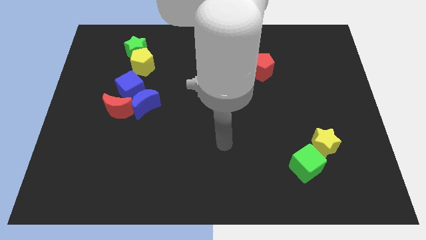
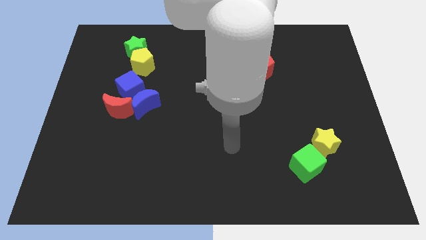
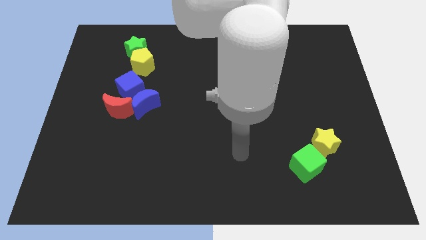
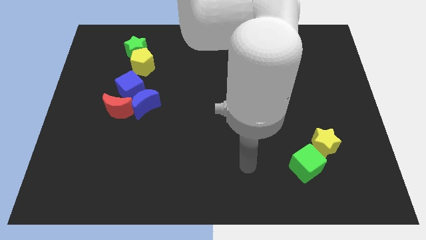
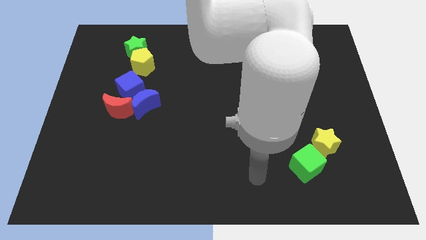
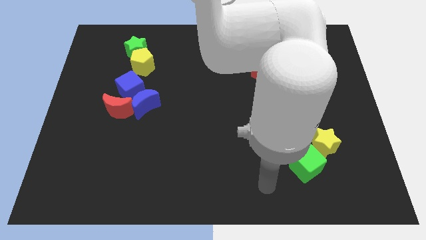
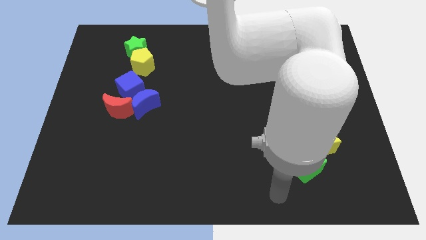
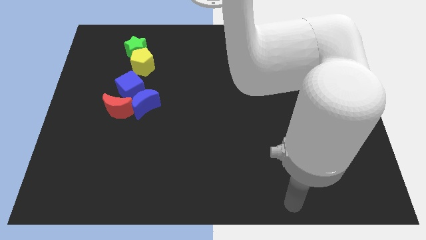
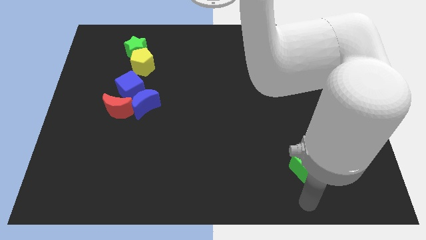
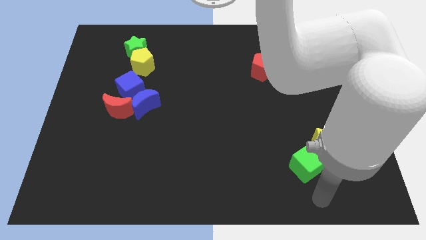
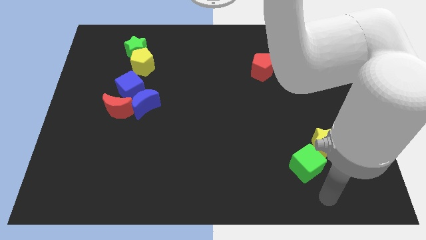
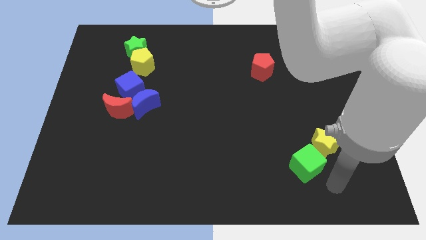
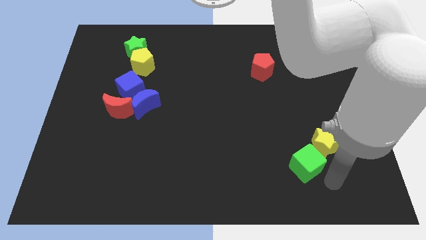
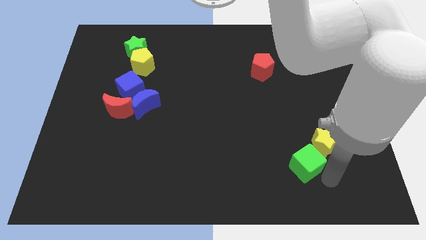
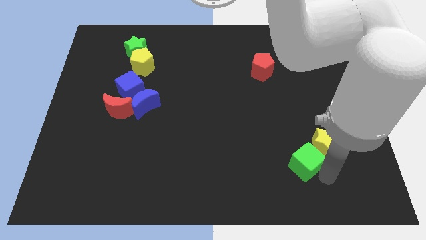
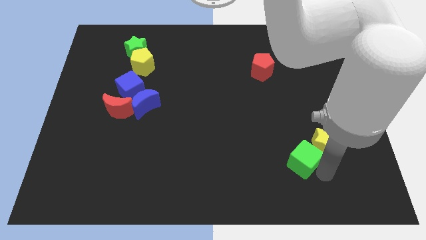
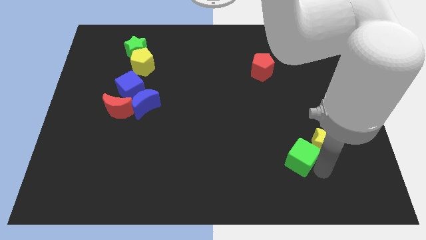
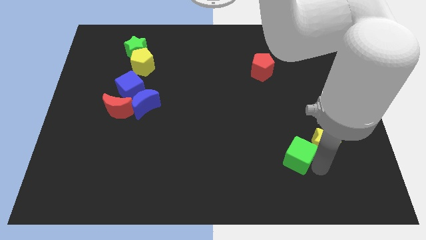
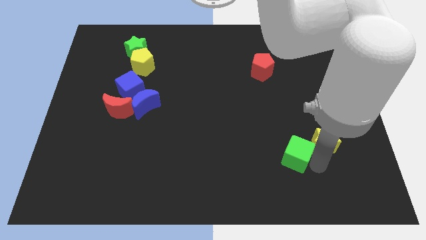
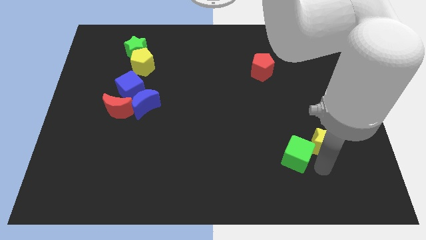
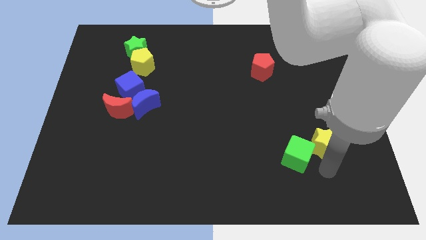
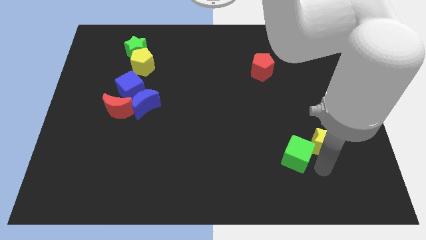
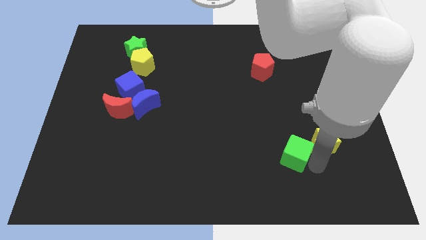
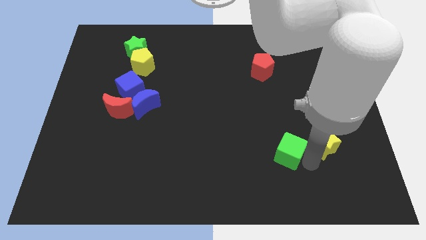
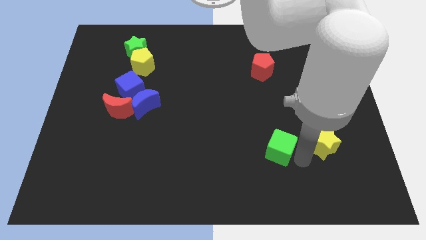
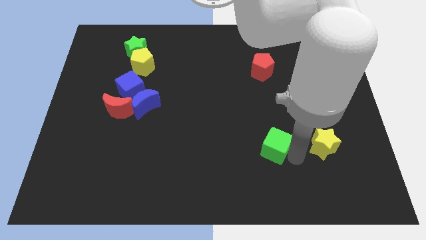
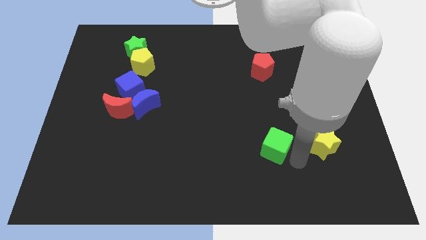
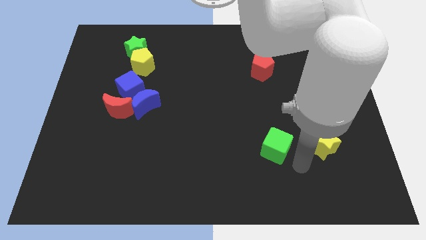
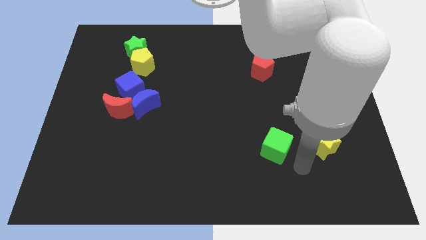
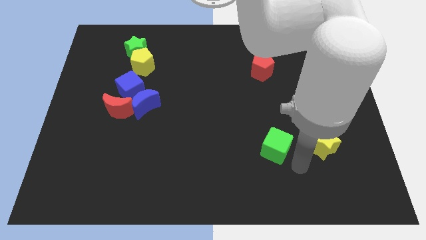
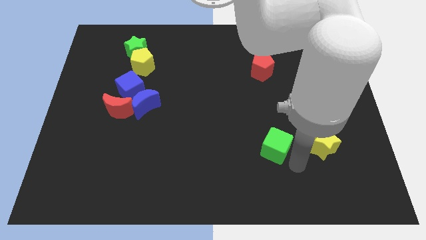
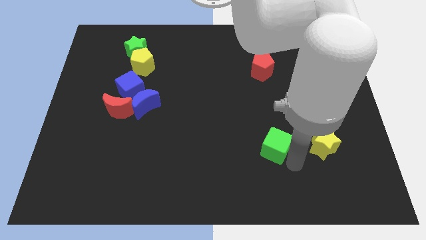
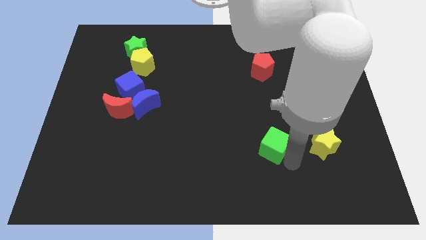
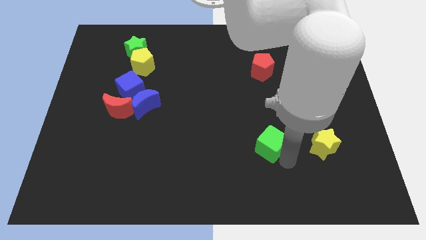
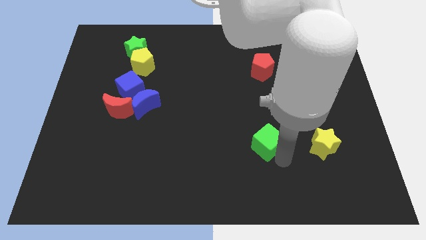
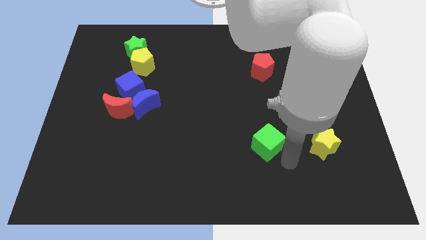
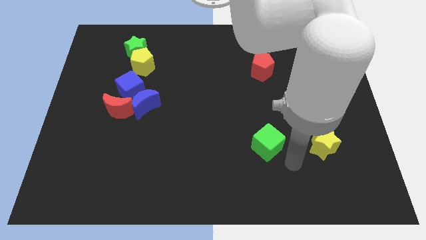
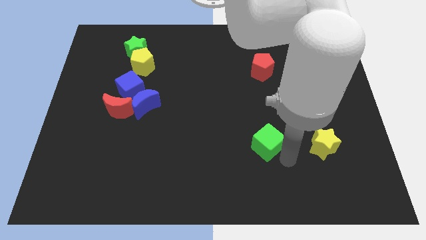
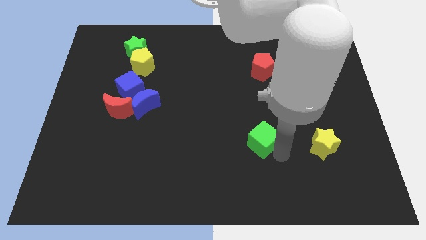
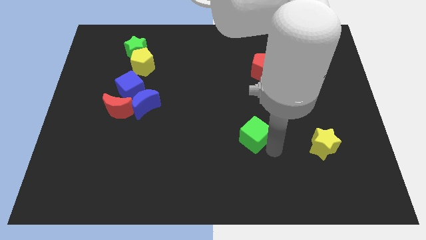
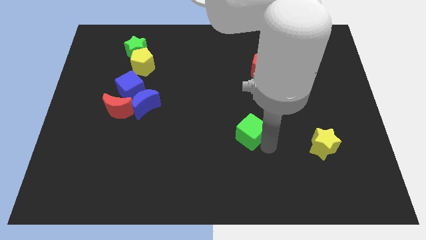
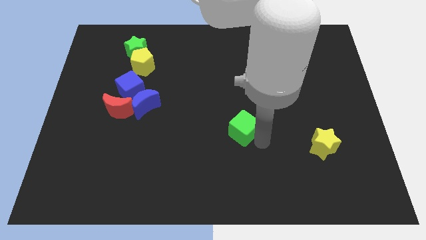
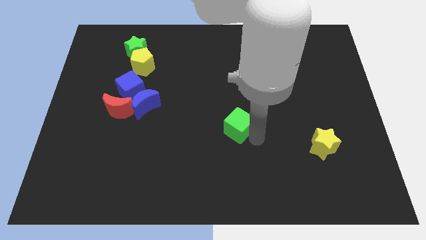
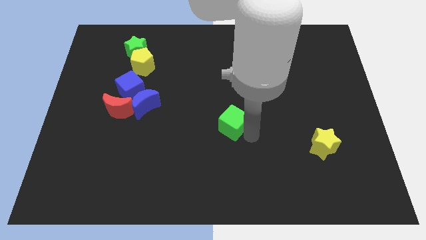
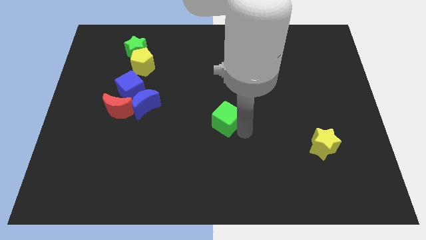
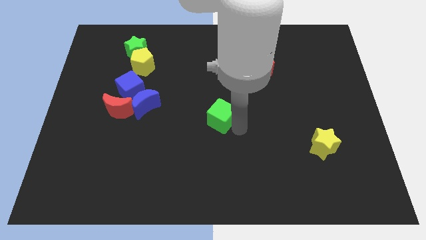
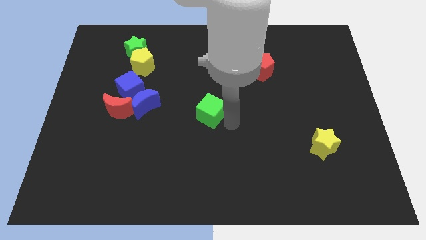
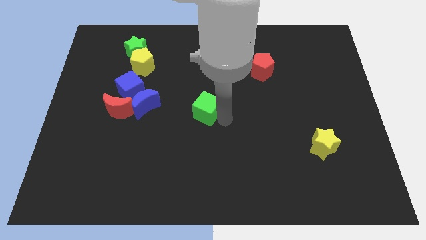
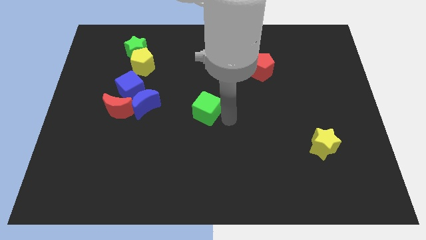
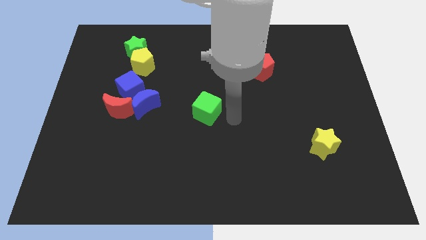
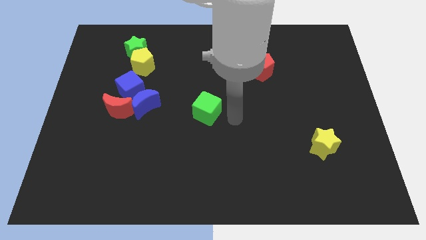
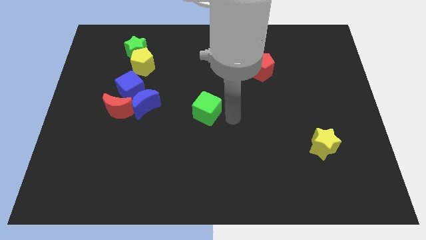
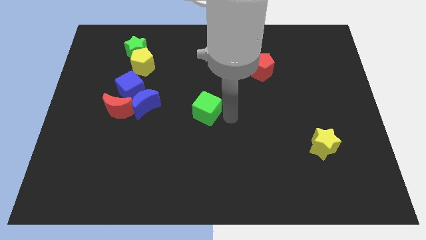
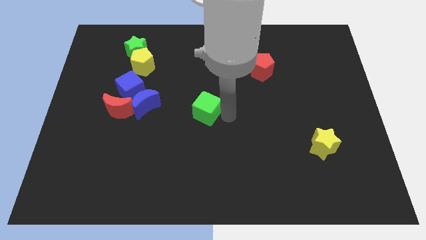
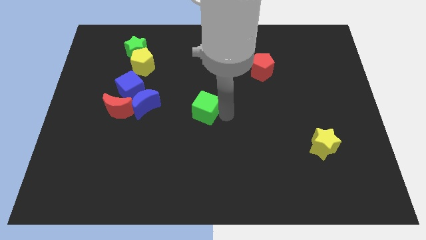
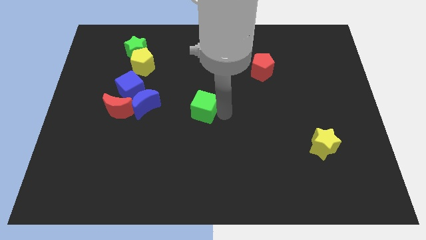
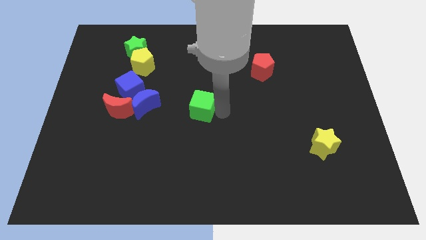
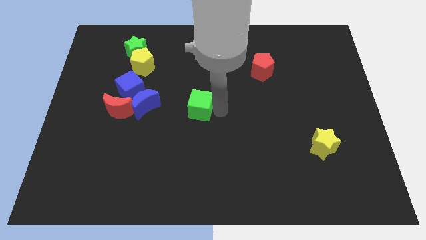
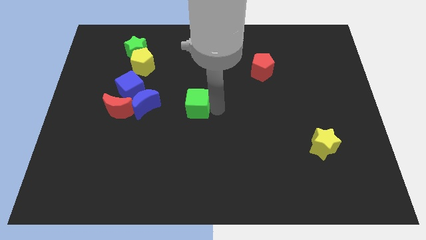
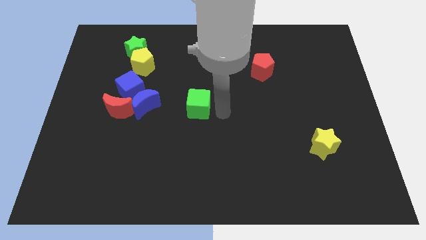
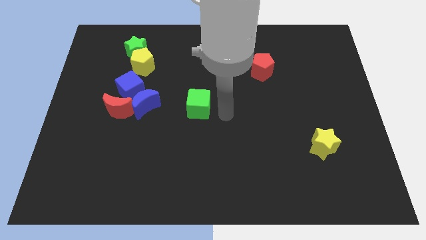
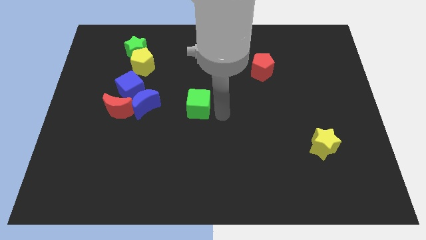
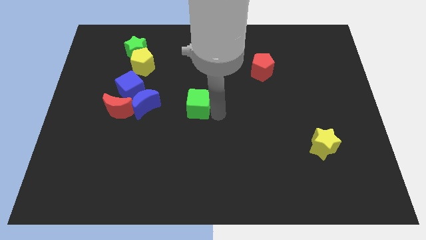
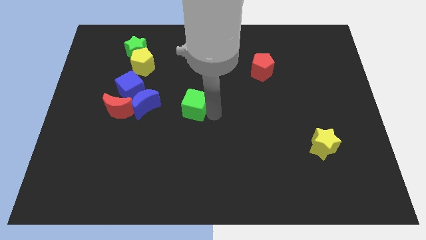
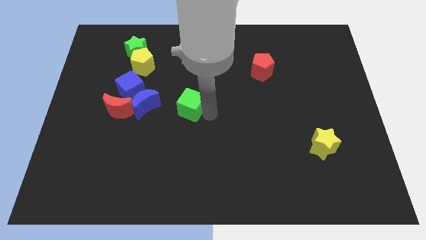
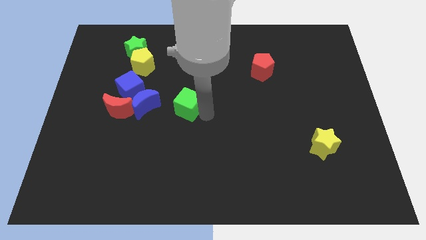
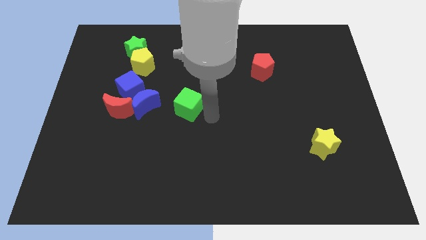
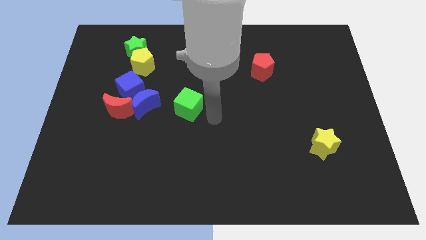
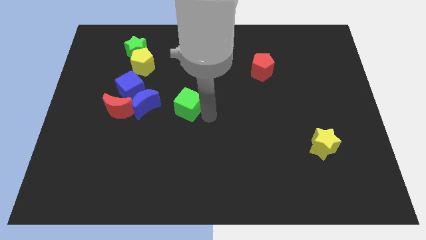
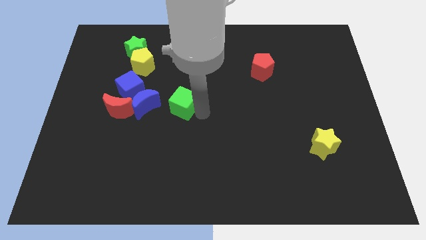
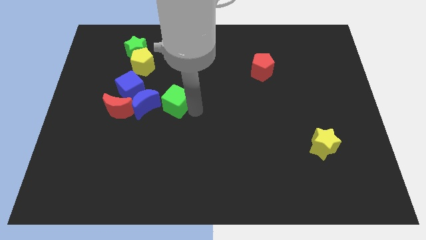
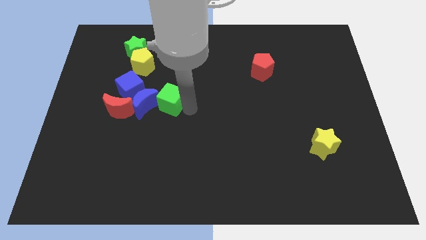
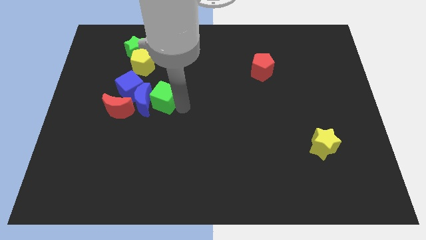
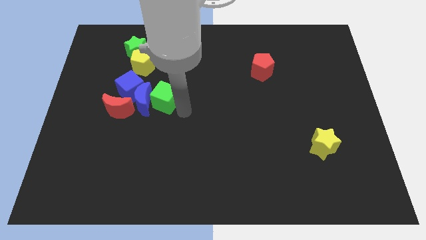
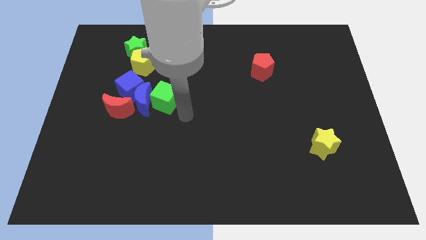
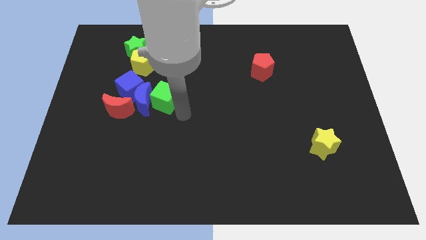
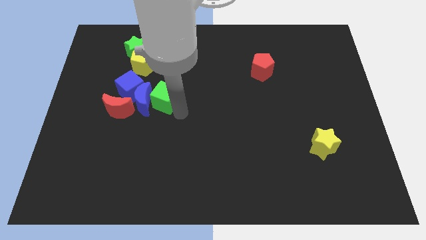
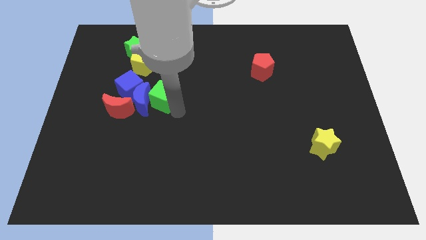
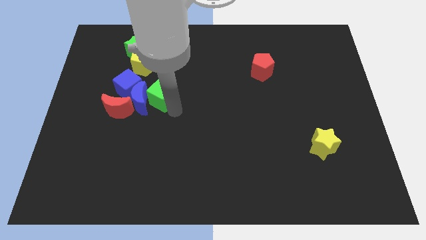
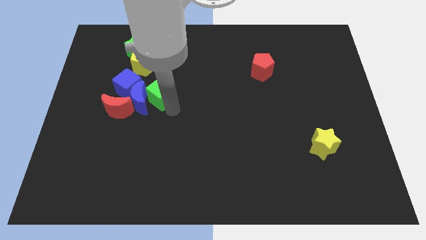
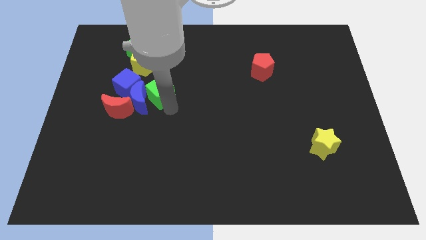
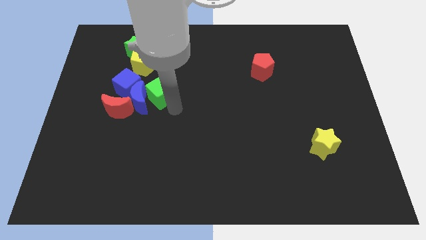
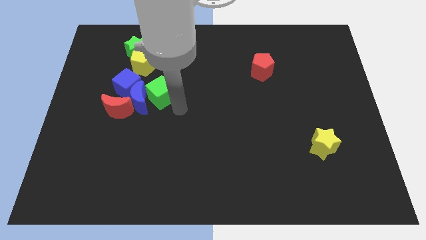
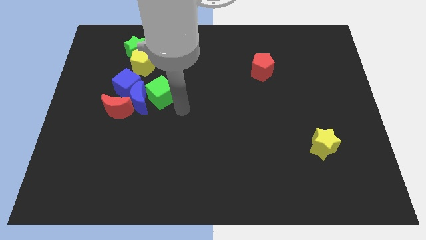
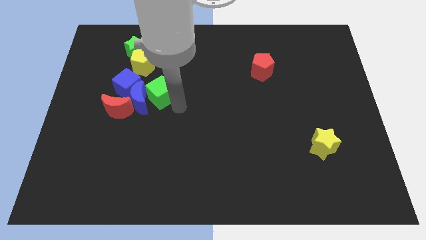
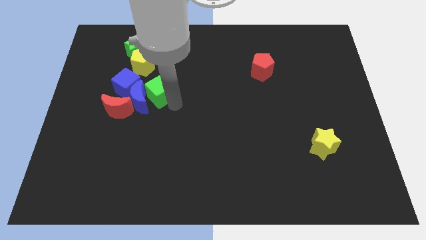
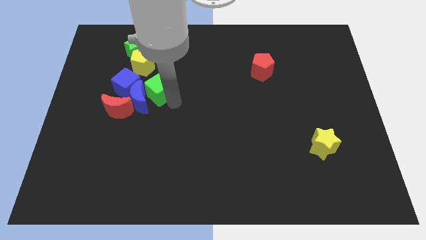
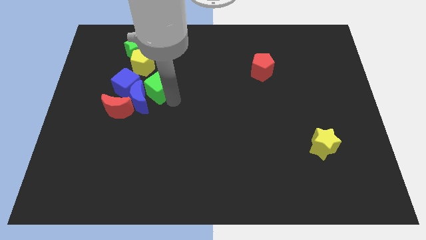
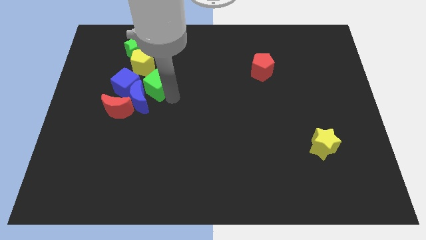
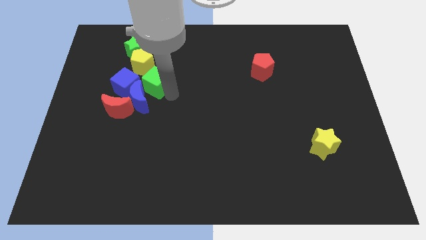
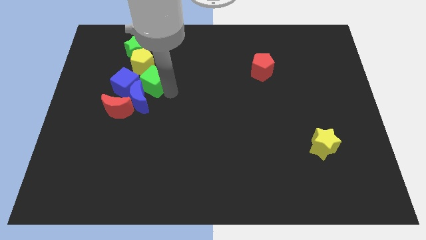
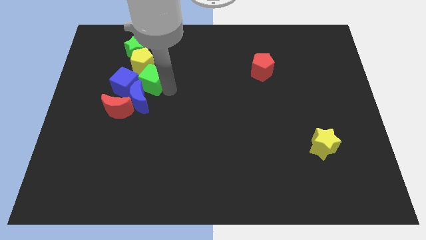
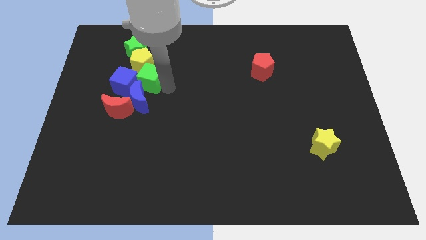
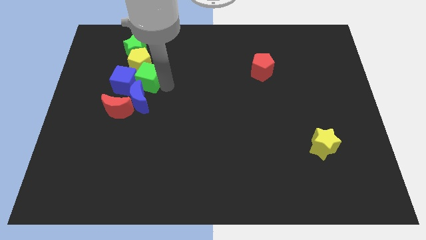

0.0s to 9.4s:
slide the green cube towards the blue cube
